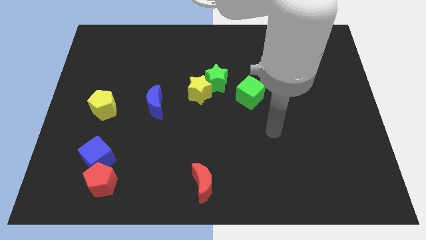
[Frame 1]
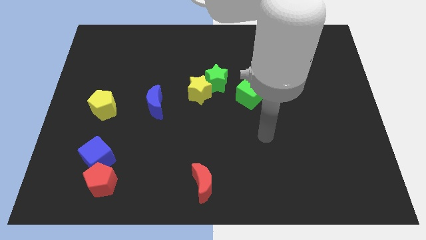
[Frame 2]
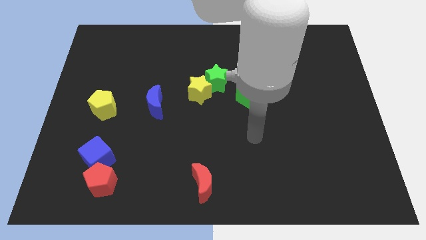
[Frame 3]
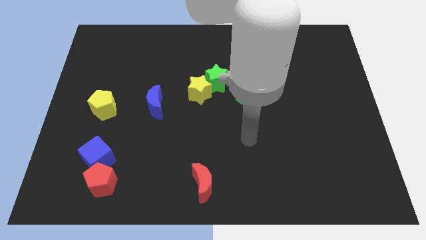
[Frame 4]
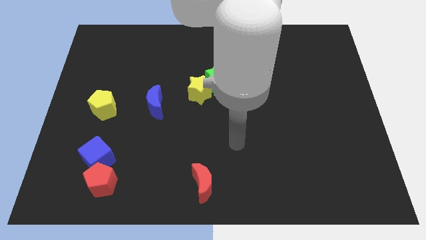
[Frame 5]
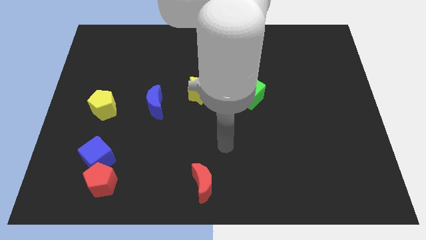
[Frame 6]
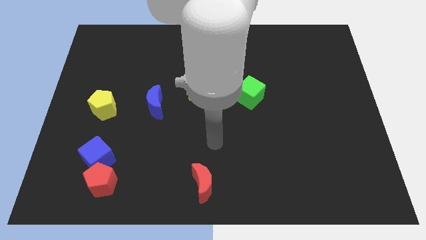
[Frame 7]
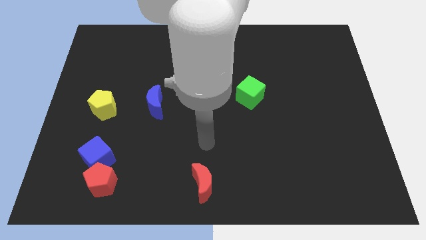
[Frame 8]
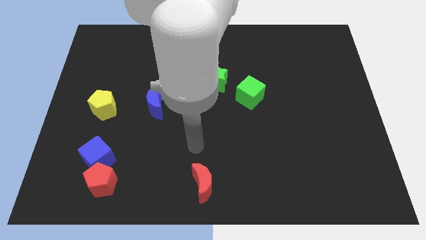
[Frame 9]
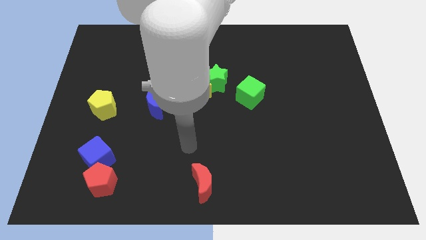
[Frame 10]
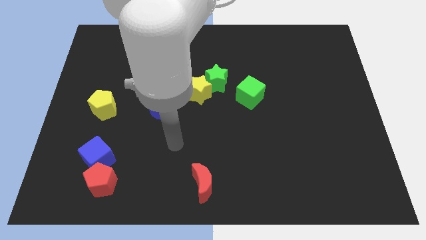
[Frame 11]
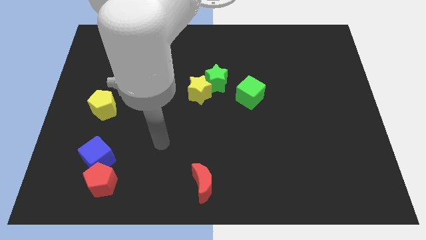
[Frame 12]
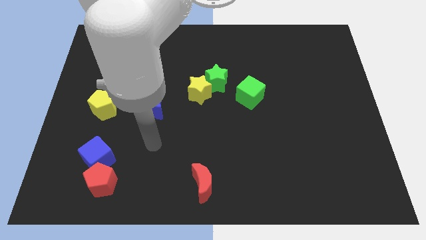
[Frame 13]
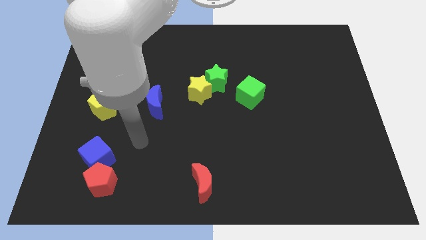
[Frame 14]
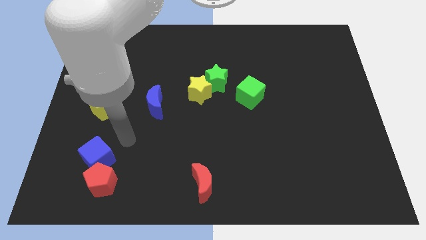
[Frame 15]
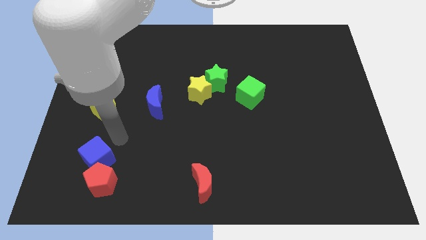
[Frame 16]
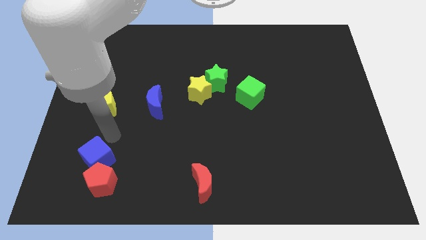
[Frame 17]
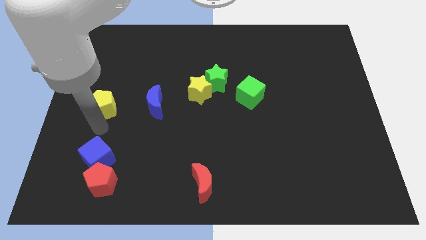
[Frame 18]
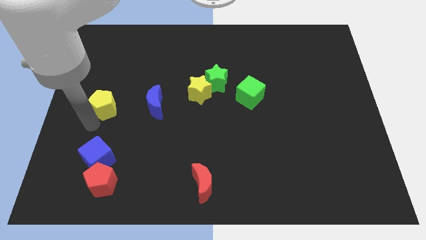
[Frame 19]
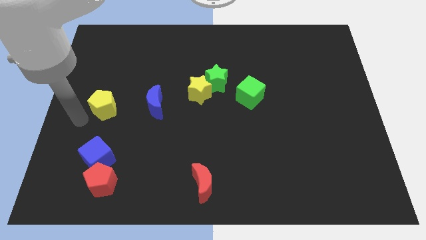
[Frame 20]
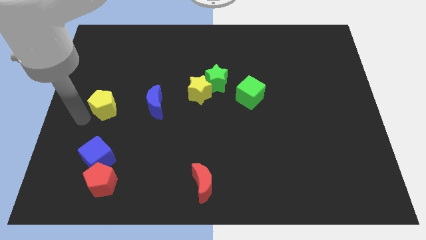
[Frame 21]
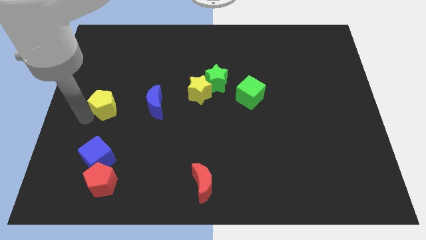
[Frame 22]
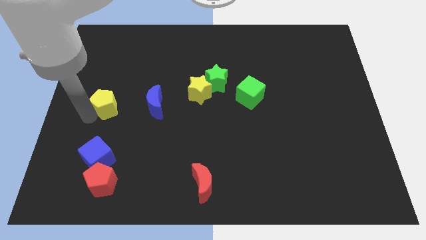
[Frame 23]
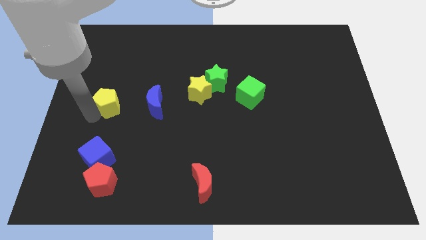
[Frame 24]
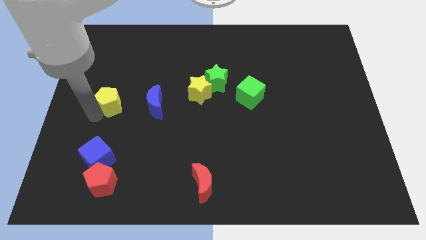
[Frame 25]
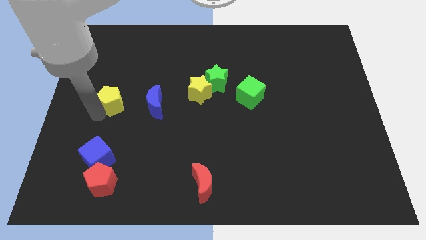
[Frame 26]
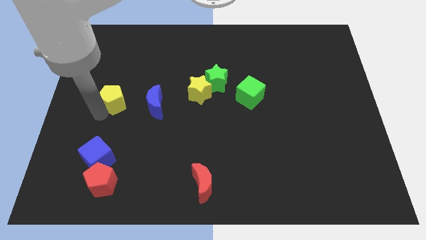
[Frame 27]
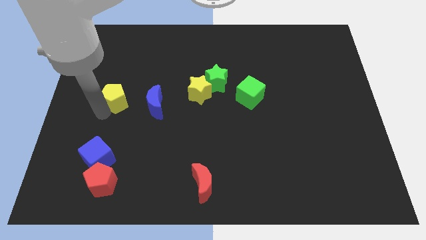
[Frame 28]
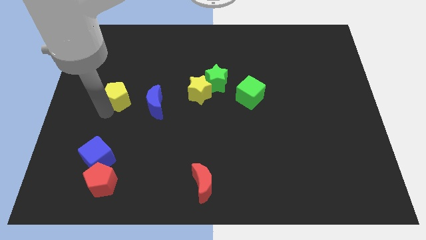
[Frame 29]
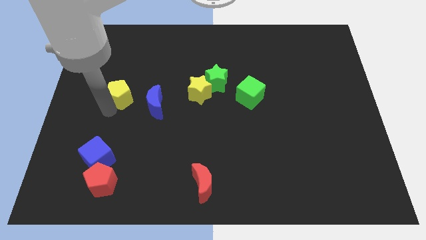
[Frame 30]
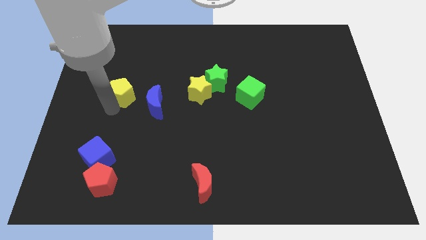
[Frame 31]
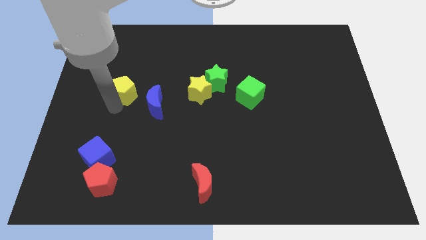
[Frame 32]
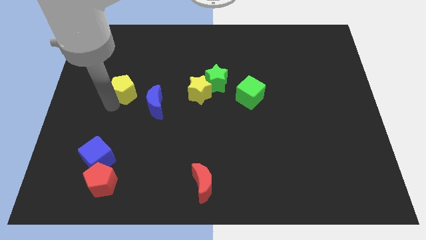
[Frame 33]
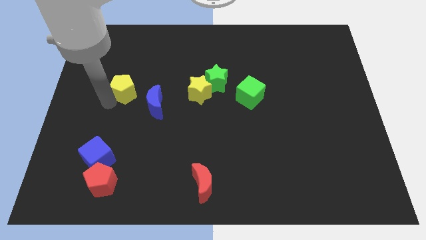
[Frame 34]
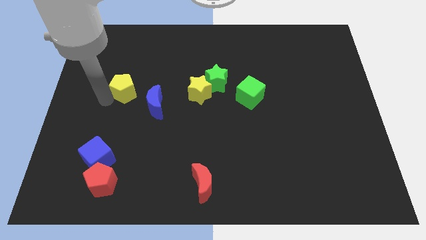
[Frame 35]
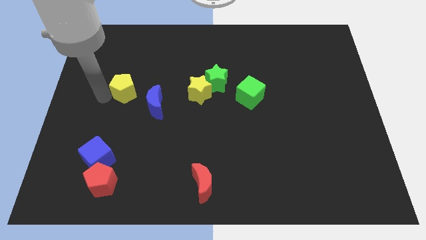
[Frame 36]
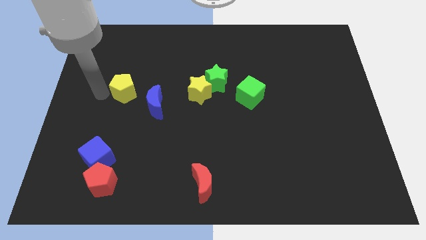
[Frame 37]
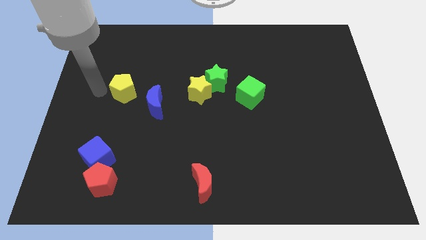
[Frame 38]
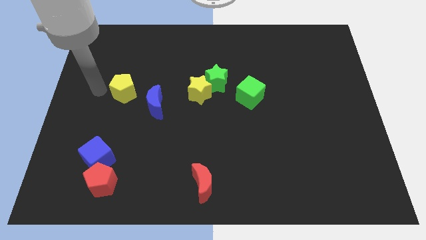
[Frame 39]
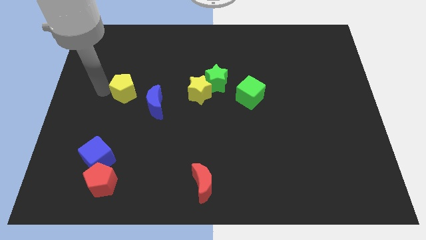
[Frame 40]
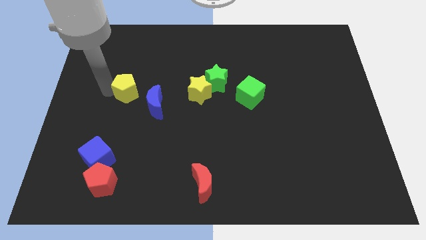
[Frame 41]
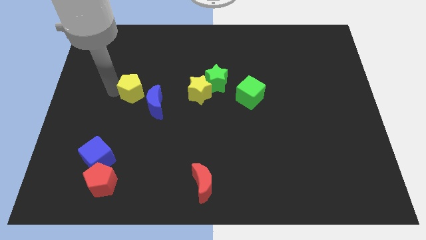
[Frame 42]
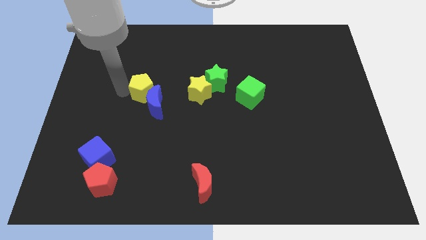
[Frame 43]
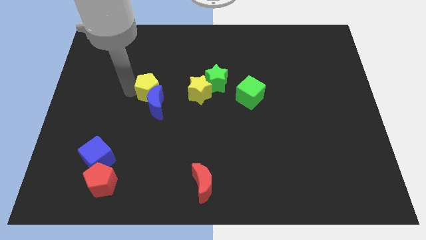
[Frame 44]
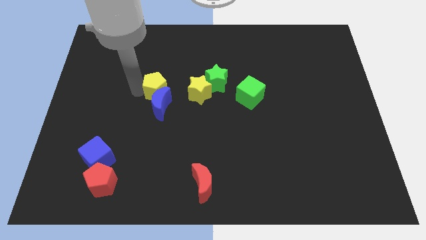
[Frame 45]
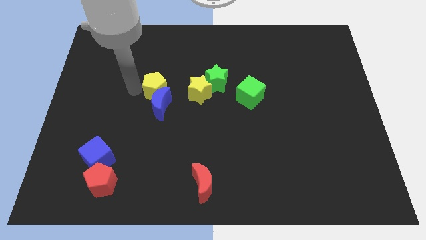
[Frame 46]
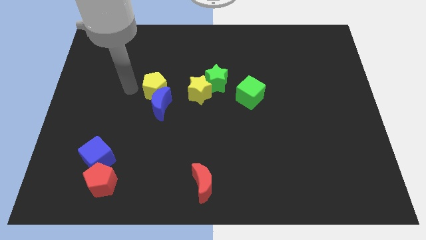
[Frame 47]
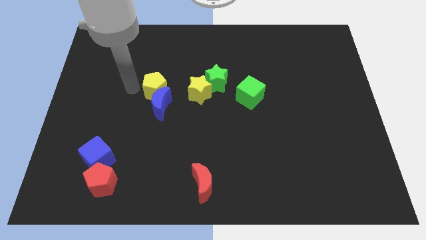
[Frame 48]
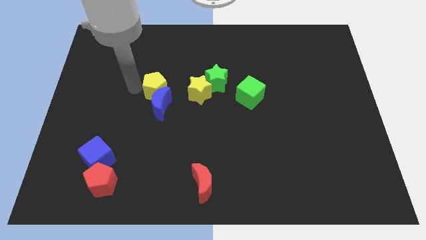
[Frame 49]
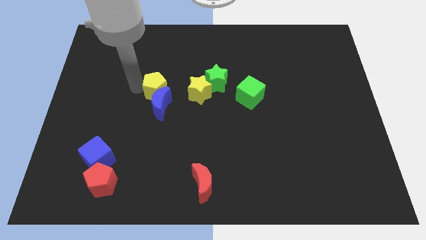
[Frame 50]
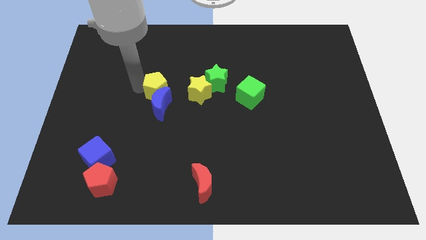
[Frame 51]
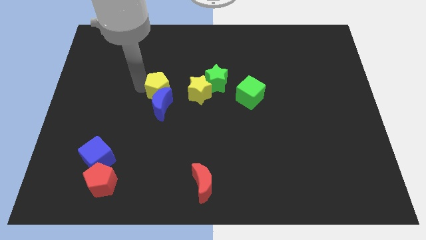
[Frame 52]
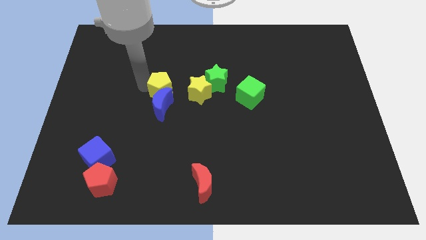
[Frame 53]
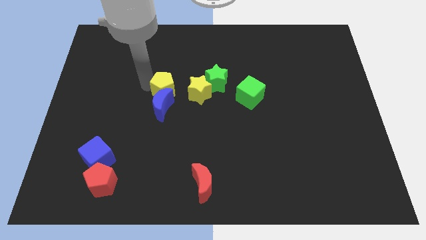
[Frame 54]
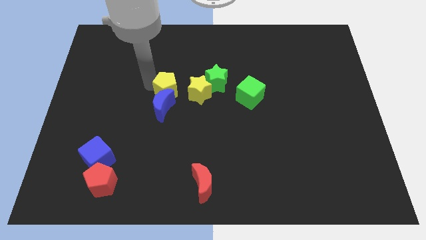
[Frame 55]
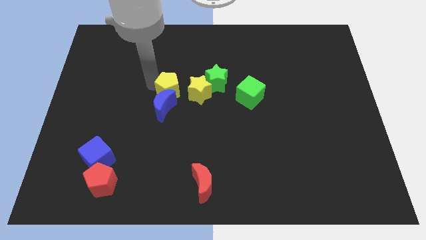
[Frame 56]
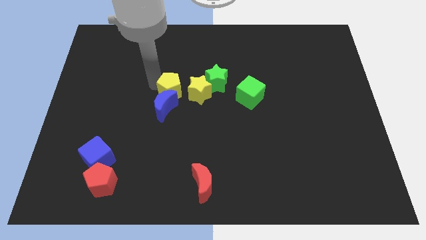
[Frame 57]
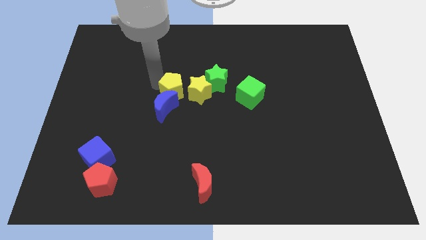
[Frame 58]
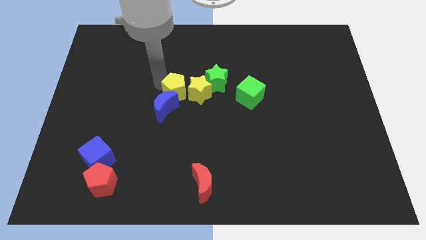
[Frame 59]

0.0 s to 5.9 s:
slide the yellow pentagon to the yellow star

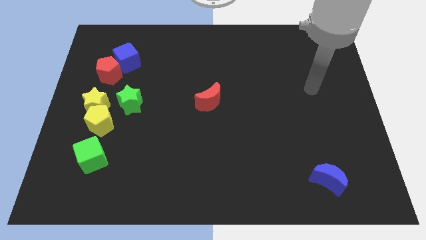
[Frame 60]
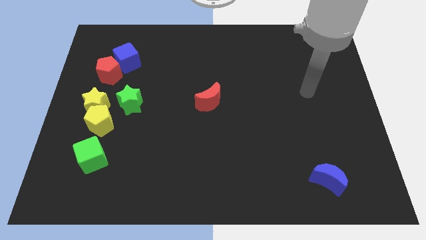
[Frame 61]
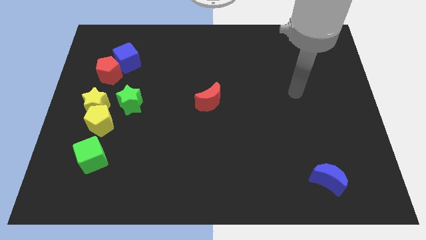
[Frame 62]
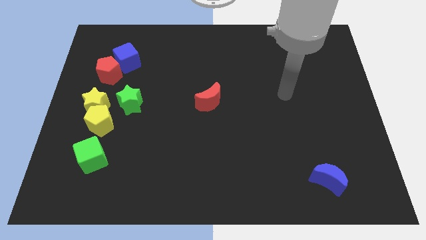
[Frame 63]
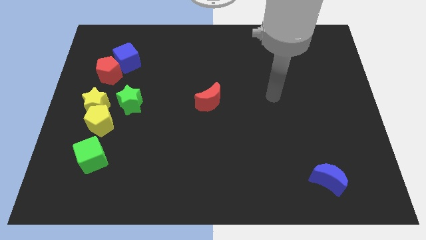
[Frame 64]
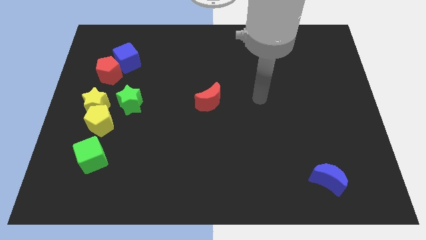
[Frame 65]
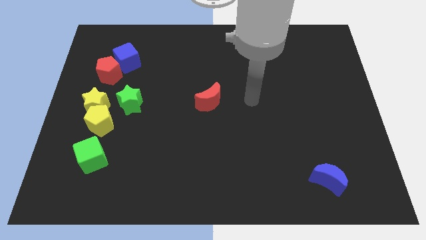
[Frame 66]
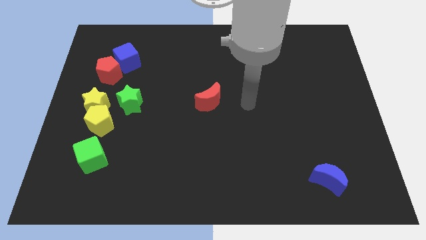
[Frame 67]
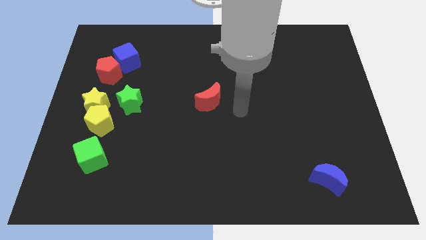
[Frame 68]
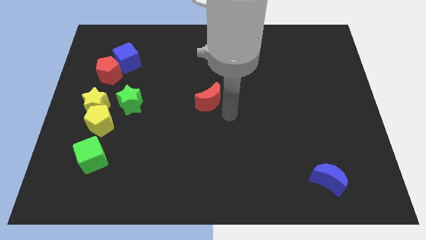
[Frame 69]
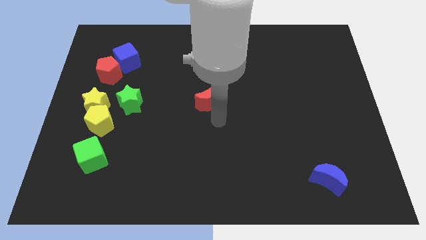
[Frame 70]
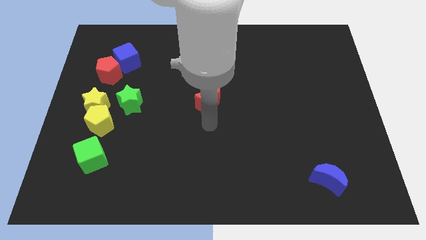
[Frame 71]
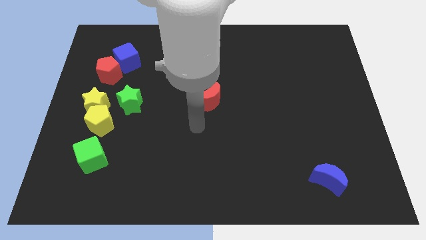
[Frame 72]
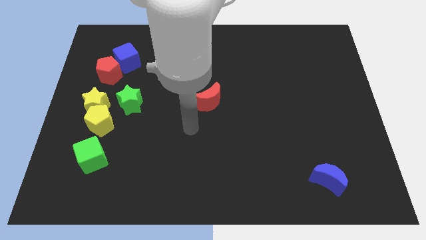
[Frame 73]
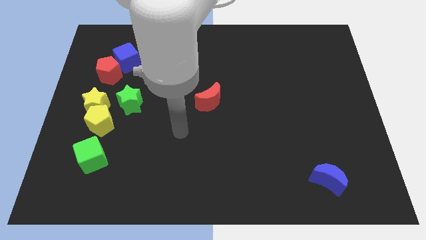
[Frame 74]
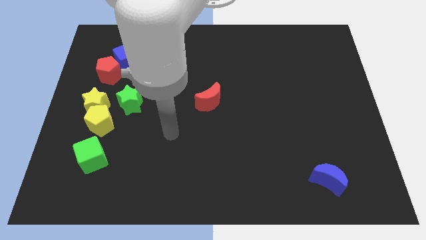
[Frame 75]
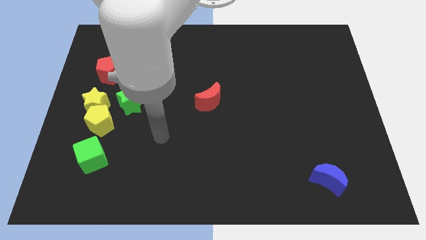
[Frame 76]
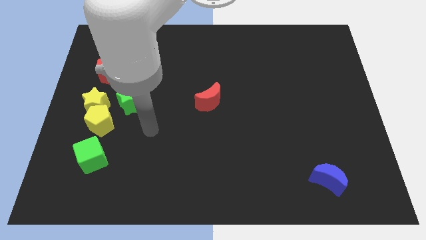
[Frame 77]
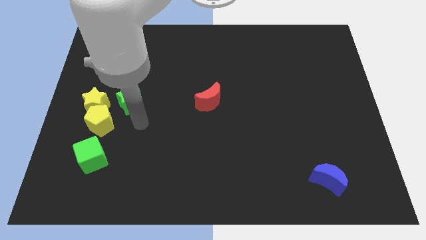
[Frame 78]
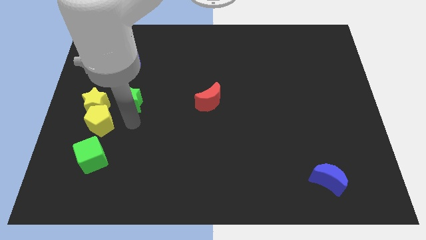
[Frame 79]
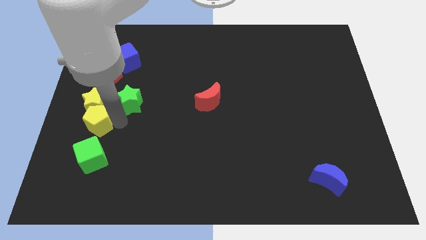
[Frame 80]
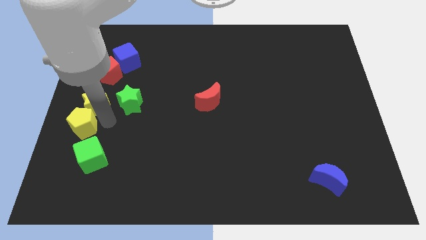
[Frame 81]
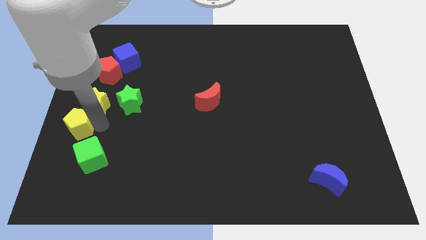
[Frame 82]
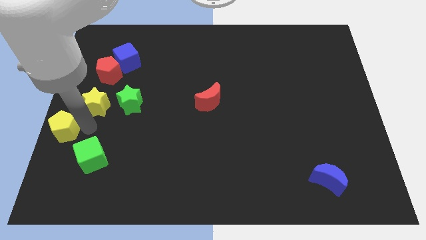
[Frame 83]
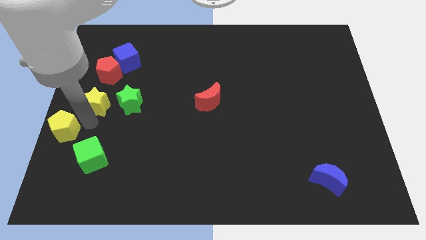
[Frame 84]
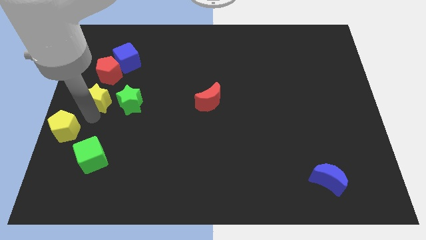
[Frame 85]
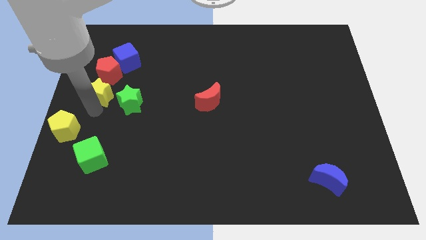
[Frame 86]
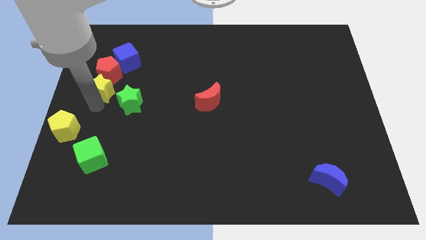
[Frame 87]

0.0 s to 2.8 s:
move the yellow star to the red pentagon
